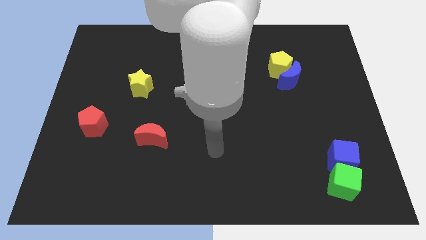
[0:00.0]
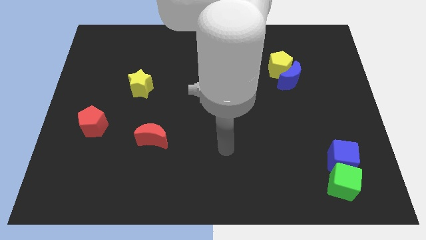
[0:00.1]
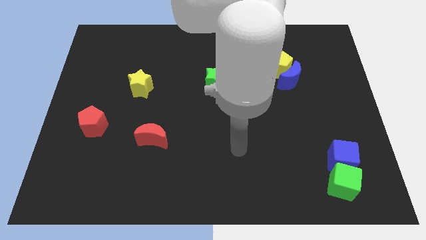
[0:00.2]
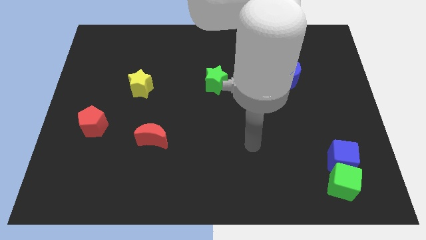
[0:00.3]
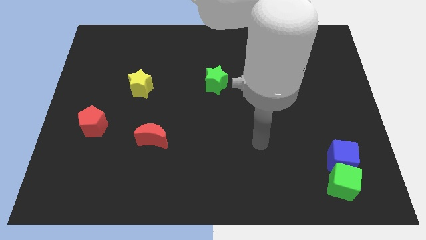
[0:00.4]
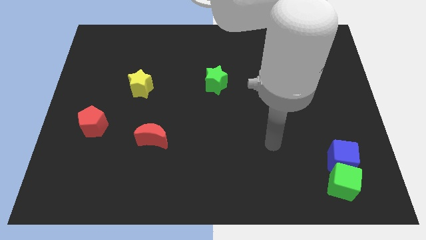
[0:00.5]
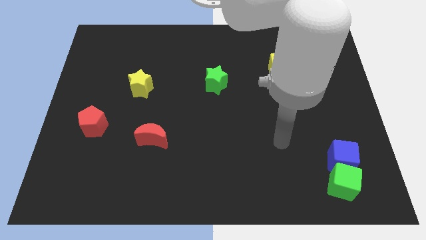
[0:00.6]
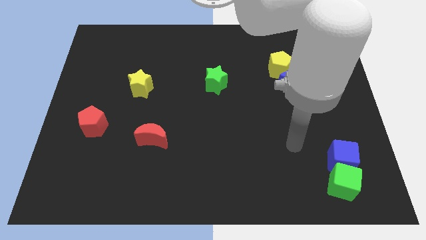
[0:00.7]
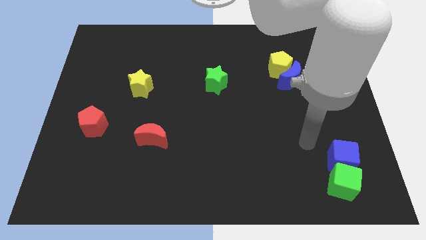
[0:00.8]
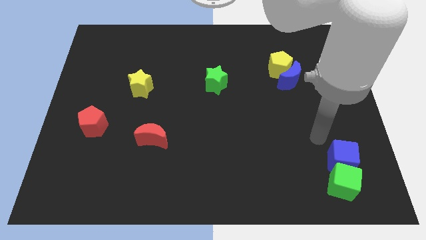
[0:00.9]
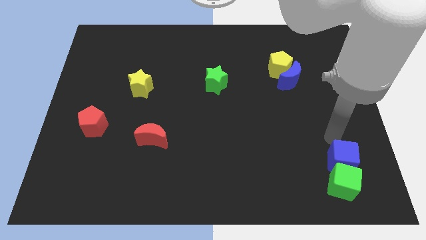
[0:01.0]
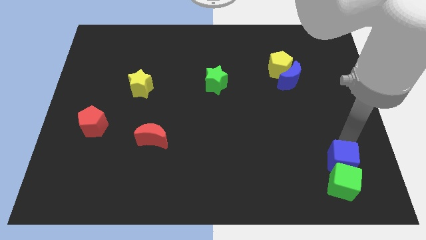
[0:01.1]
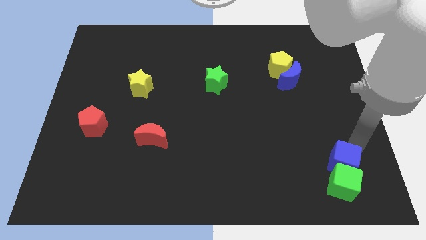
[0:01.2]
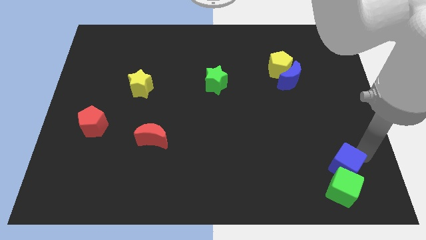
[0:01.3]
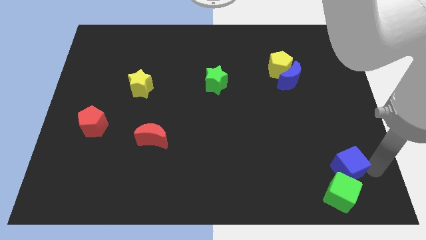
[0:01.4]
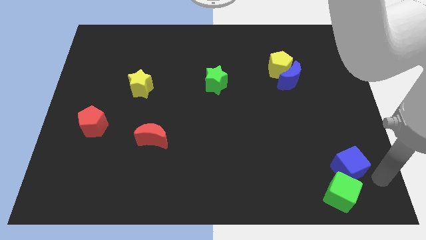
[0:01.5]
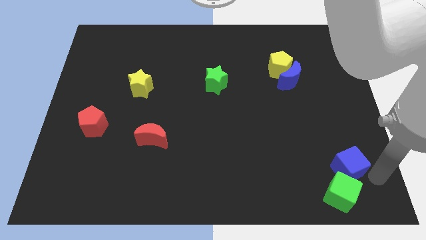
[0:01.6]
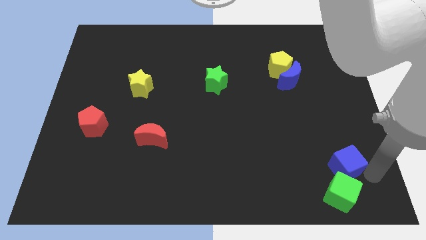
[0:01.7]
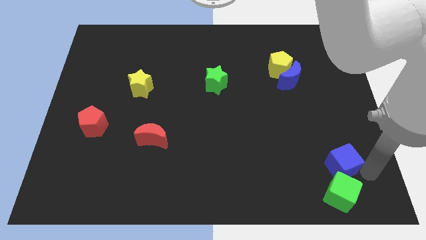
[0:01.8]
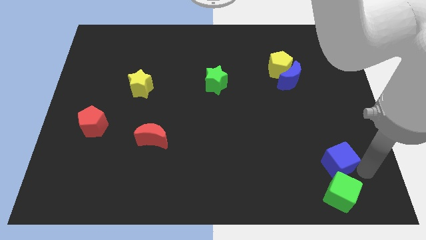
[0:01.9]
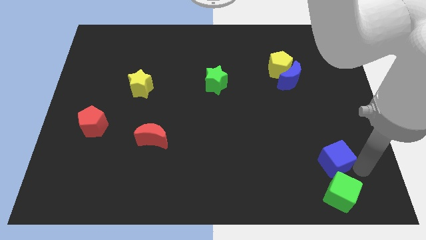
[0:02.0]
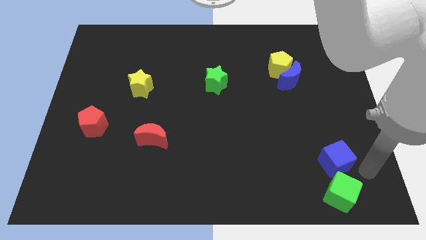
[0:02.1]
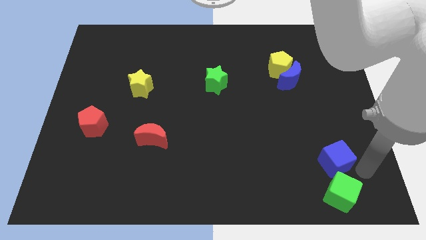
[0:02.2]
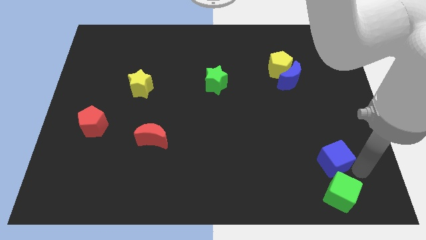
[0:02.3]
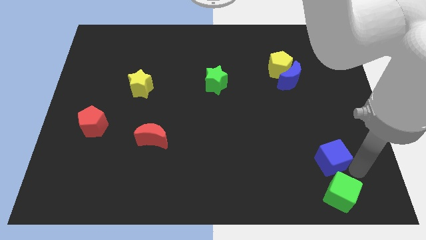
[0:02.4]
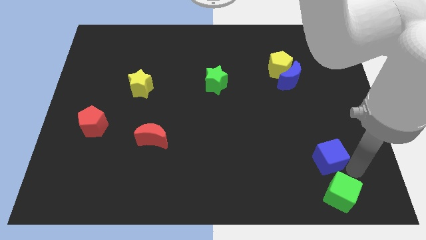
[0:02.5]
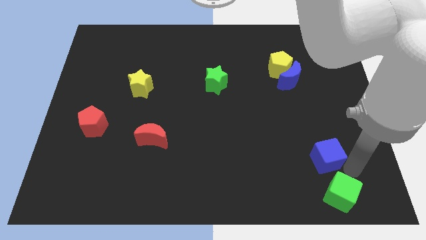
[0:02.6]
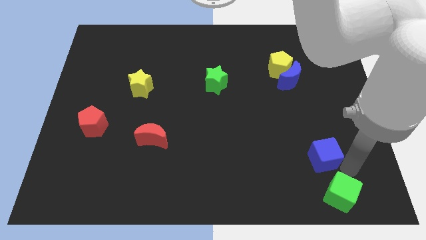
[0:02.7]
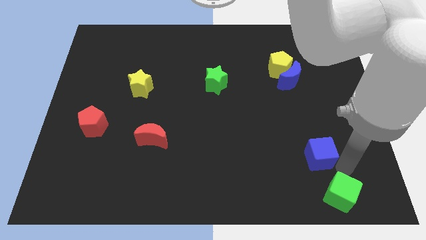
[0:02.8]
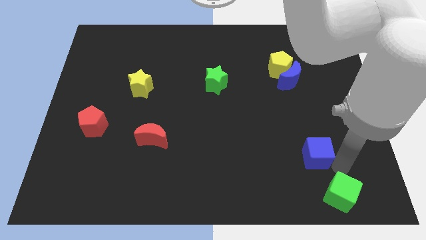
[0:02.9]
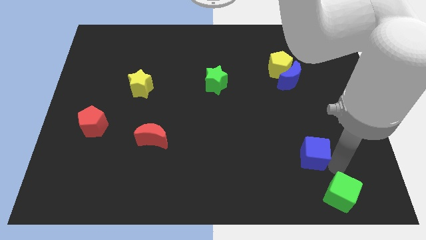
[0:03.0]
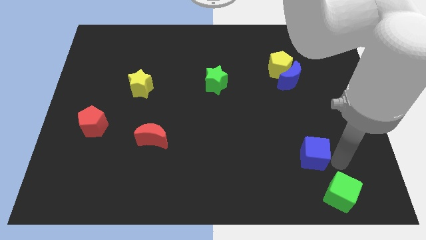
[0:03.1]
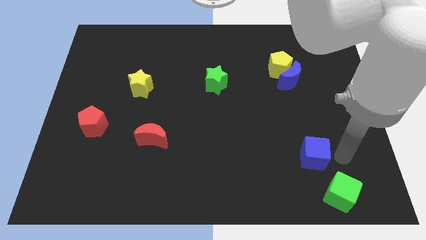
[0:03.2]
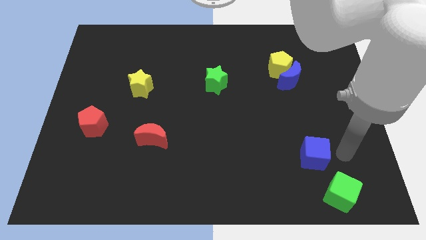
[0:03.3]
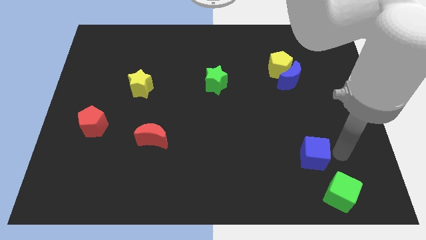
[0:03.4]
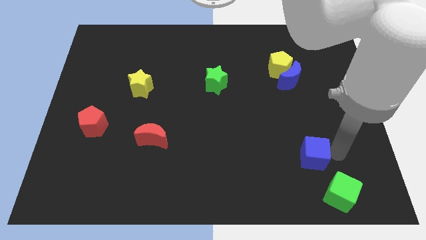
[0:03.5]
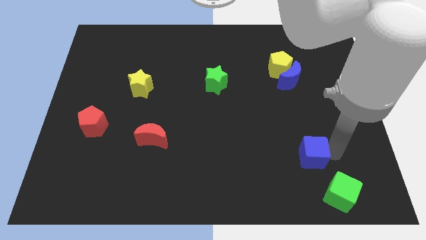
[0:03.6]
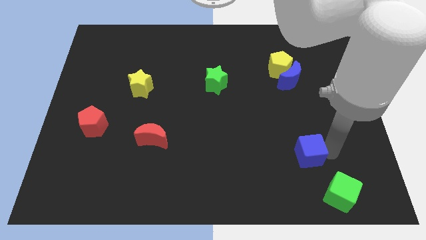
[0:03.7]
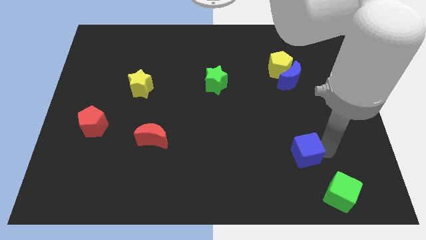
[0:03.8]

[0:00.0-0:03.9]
move the blue cube a little bit left

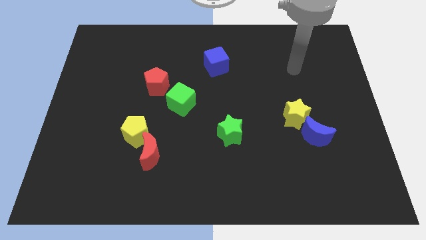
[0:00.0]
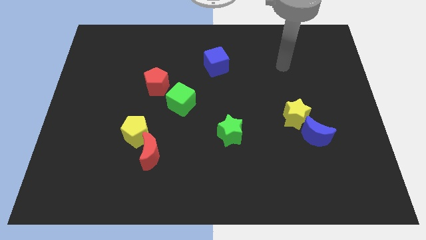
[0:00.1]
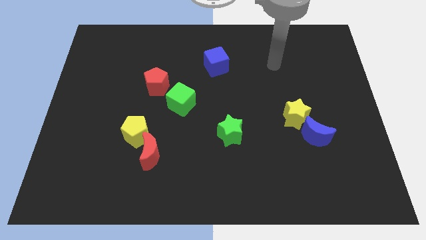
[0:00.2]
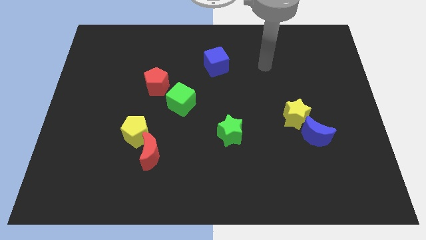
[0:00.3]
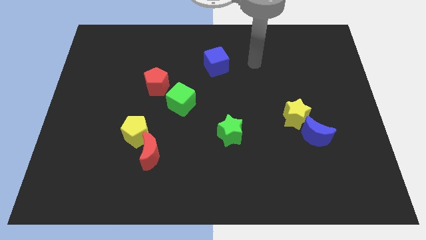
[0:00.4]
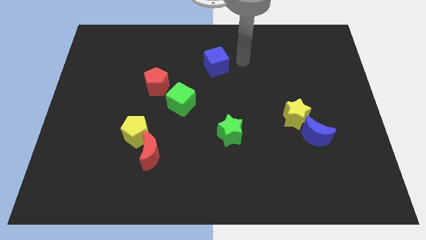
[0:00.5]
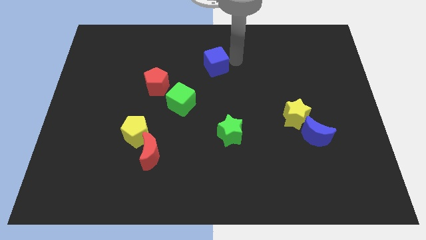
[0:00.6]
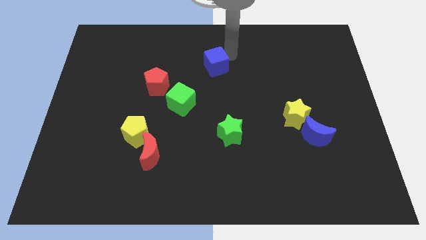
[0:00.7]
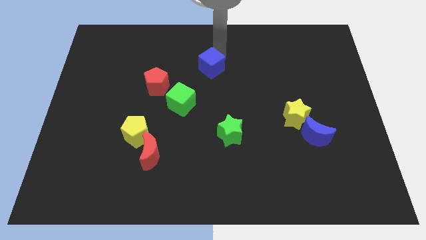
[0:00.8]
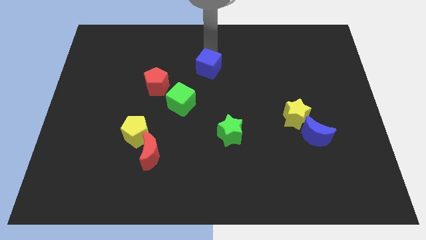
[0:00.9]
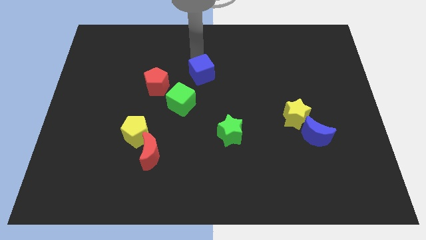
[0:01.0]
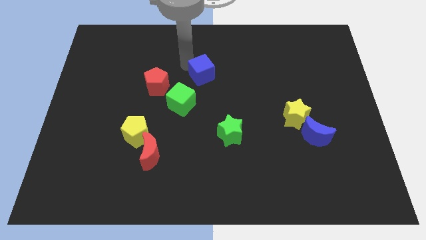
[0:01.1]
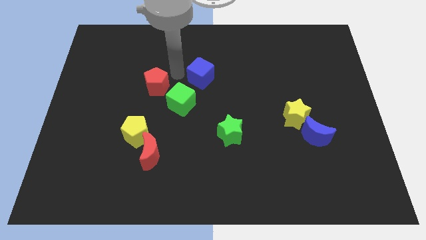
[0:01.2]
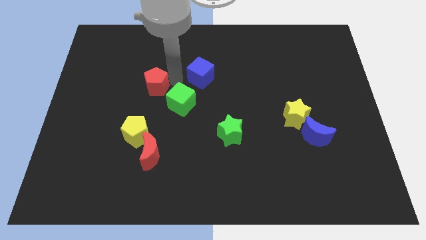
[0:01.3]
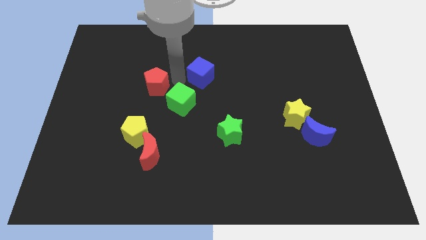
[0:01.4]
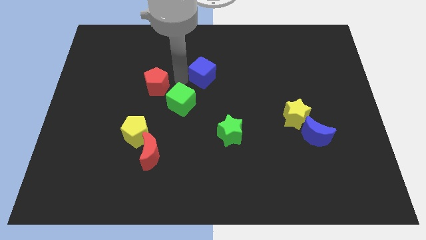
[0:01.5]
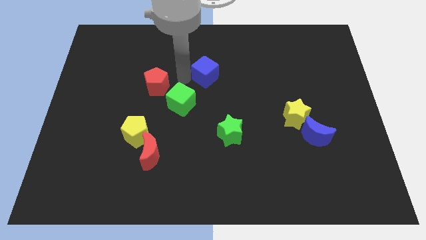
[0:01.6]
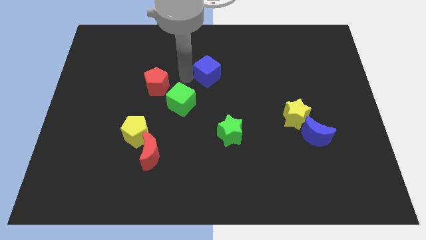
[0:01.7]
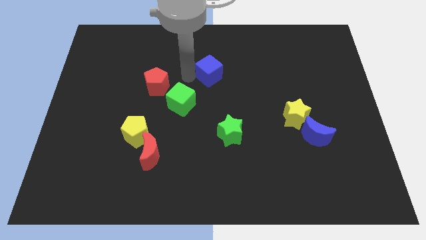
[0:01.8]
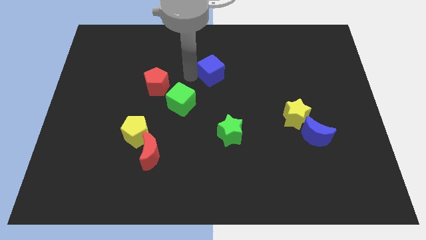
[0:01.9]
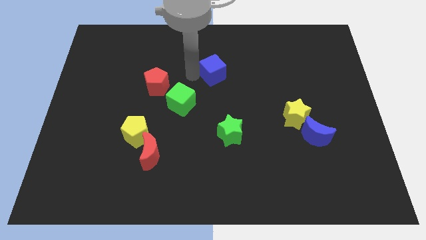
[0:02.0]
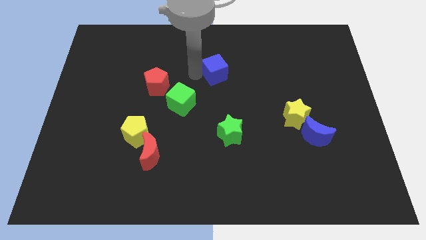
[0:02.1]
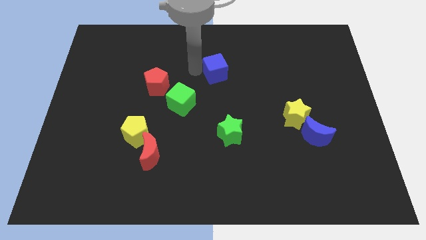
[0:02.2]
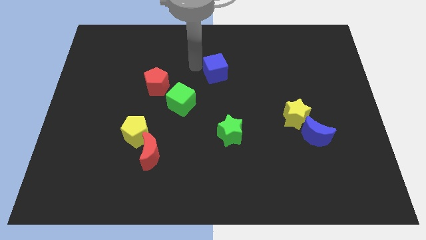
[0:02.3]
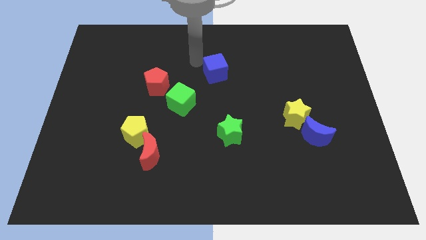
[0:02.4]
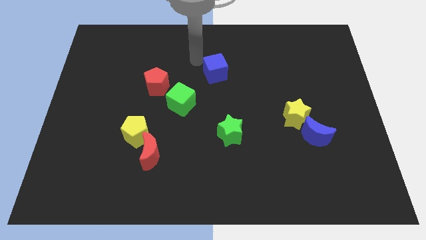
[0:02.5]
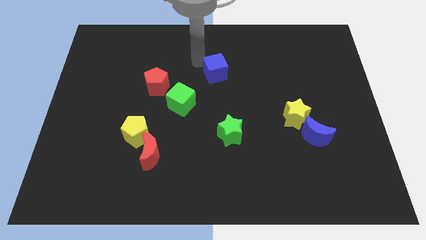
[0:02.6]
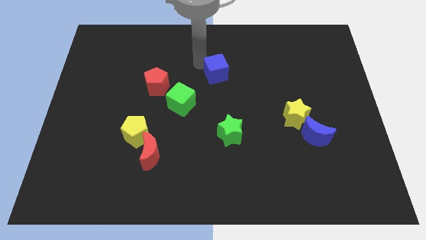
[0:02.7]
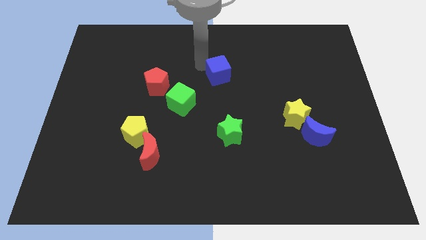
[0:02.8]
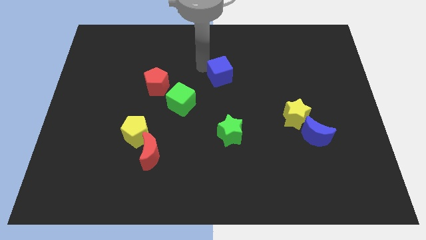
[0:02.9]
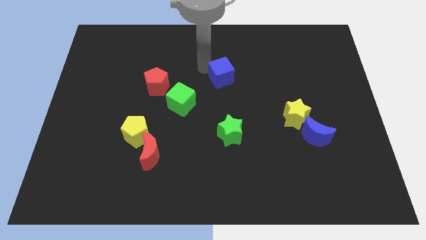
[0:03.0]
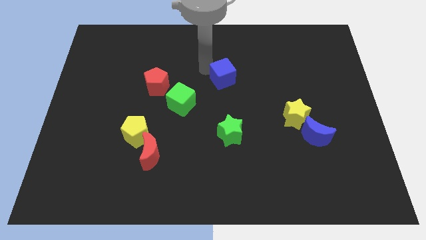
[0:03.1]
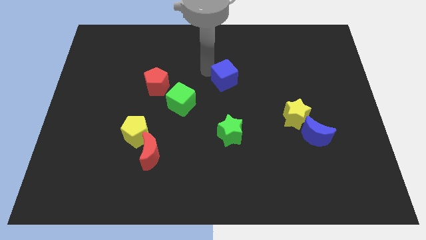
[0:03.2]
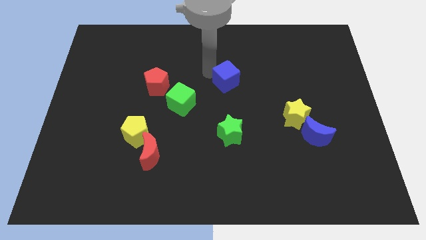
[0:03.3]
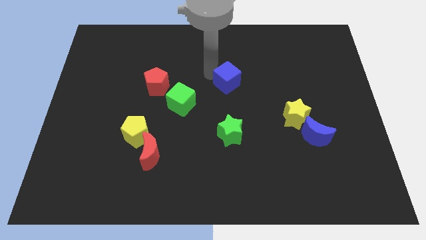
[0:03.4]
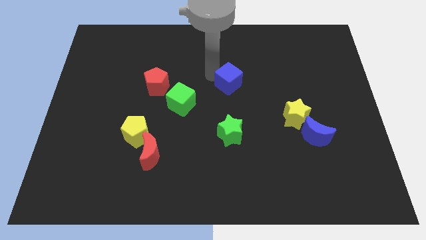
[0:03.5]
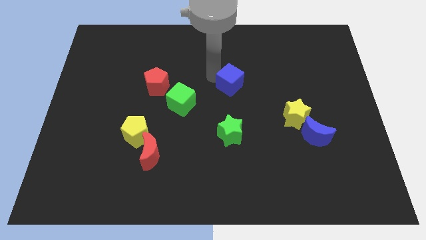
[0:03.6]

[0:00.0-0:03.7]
slide the blue cube down and to the right a little

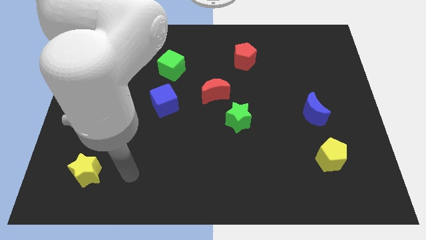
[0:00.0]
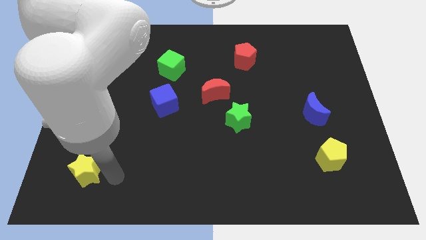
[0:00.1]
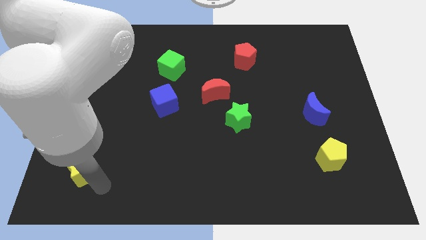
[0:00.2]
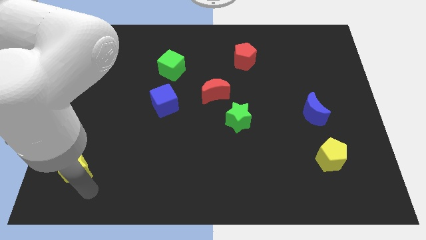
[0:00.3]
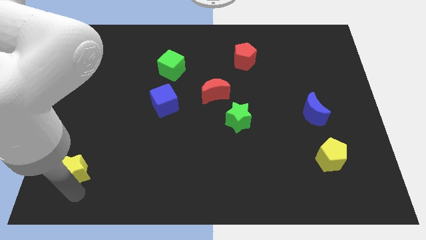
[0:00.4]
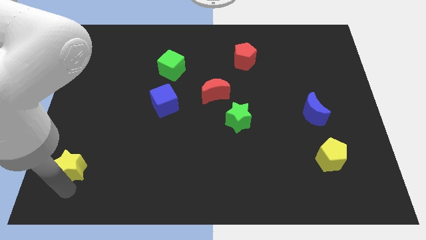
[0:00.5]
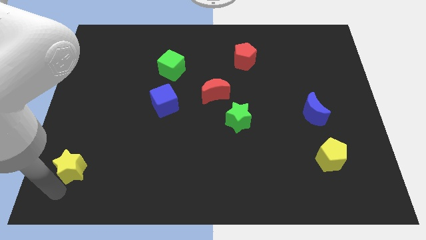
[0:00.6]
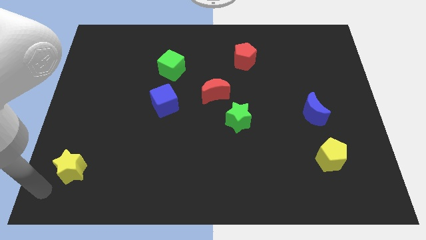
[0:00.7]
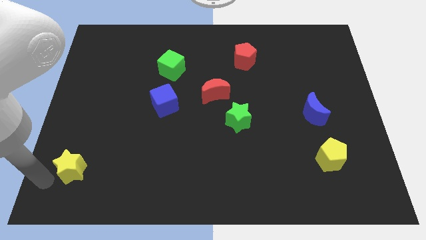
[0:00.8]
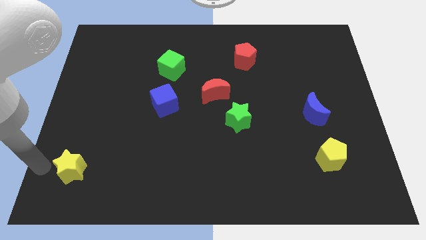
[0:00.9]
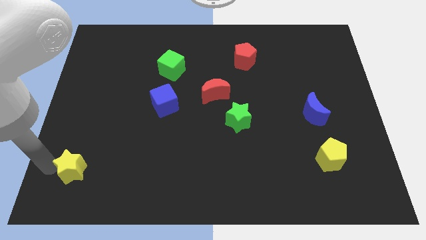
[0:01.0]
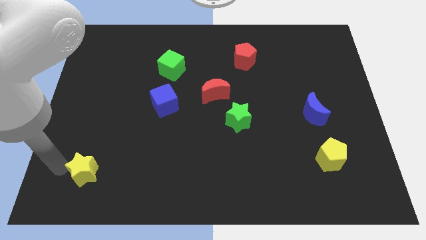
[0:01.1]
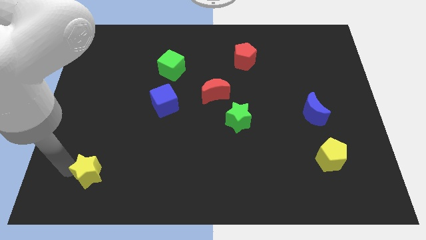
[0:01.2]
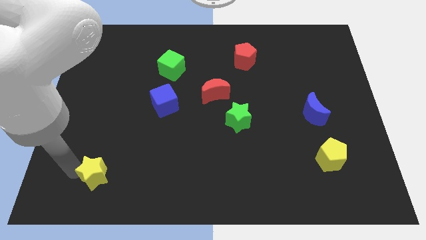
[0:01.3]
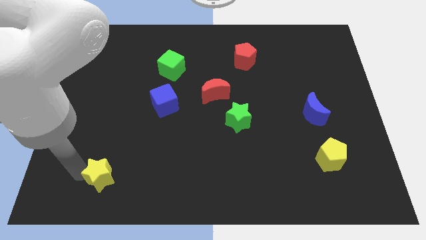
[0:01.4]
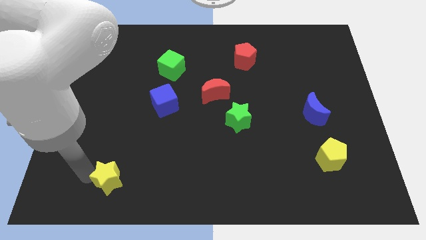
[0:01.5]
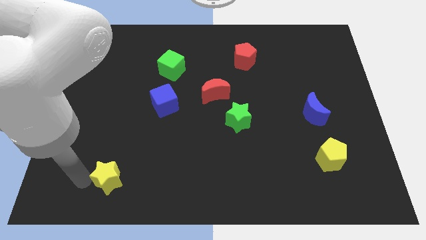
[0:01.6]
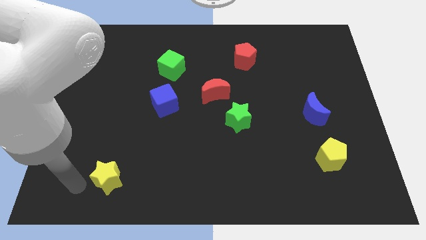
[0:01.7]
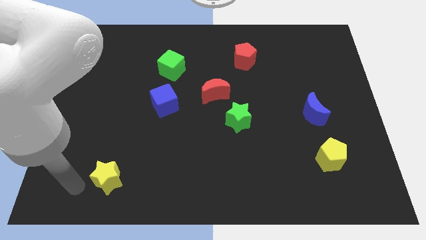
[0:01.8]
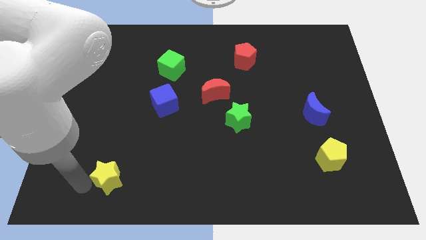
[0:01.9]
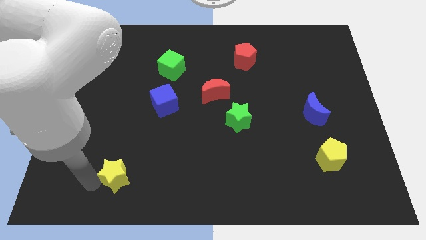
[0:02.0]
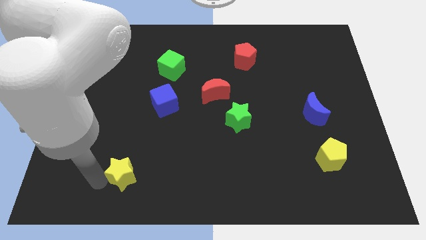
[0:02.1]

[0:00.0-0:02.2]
push the yellow star slightly to the right
